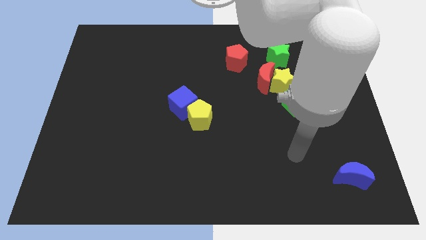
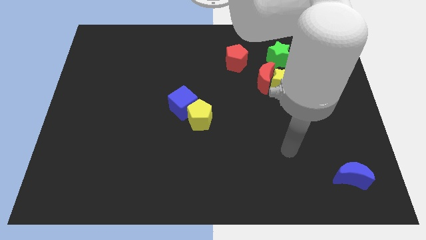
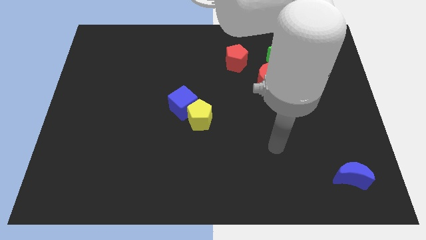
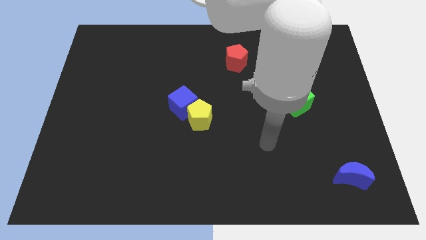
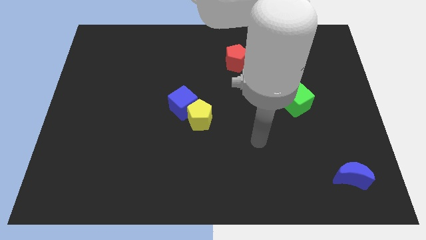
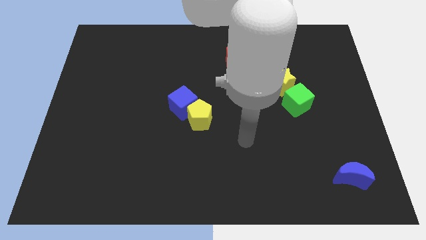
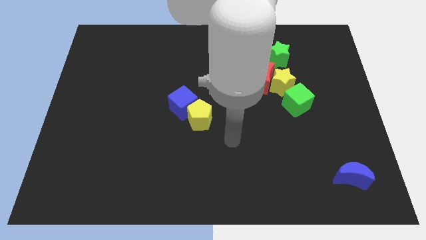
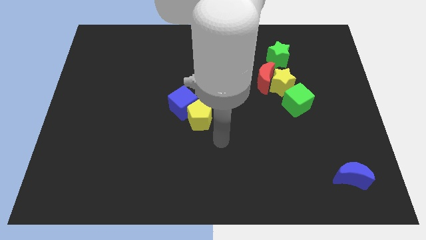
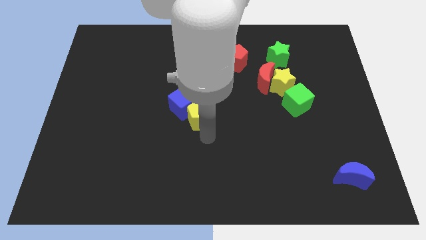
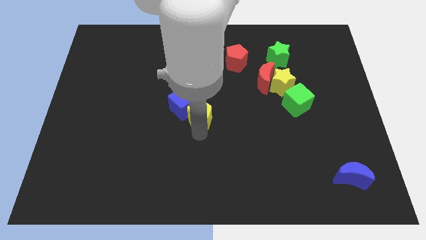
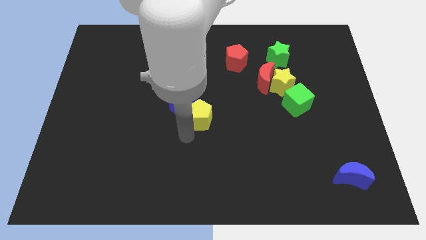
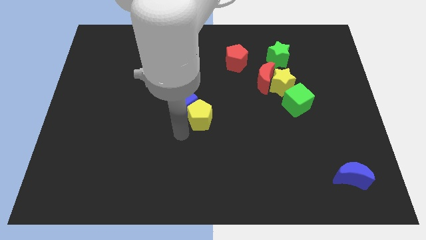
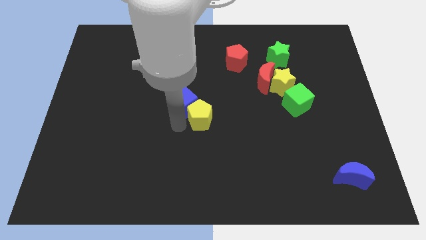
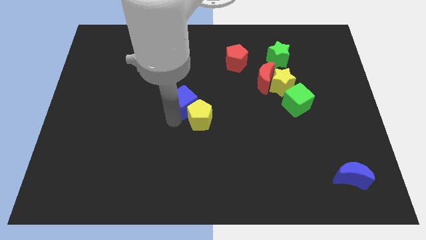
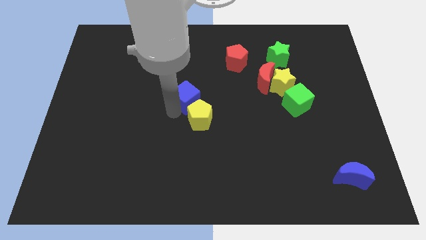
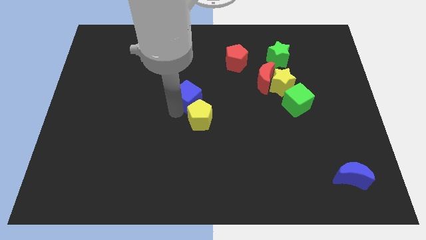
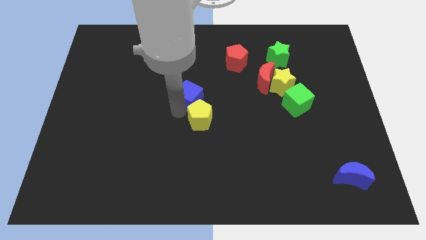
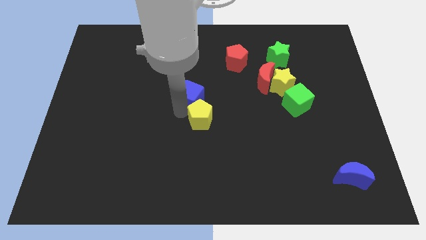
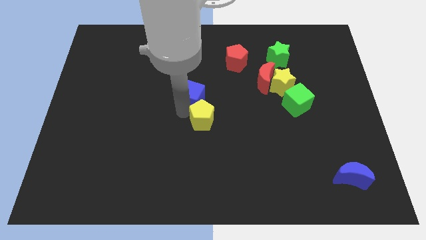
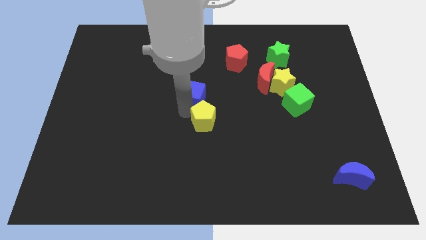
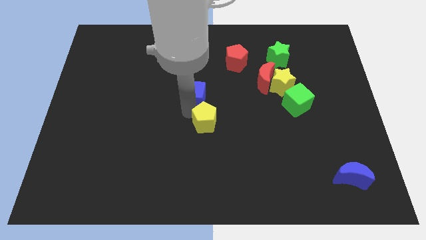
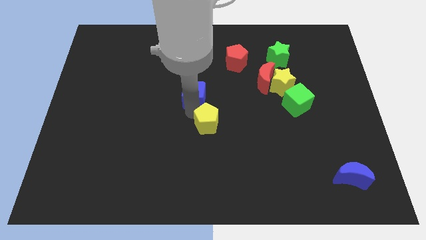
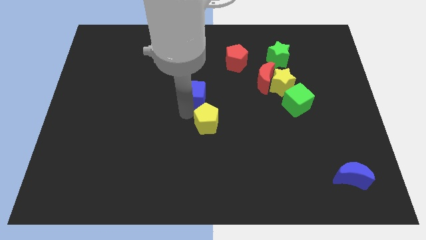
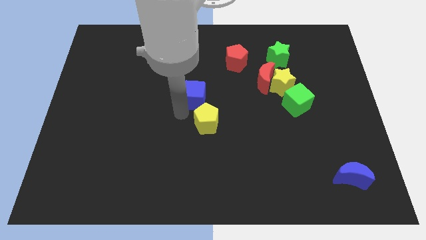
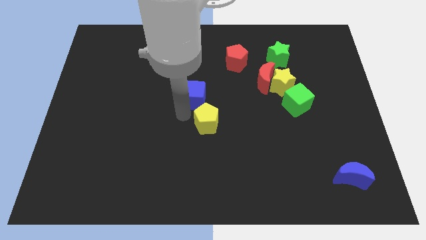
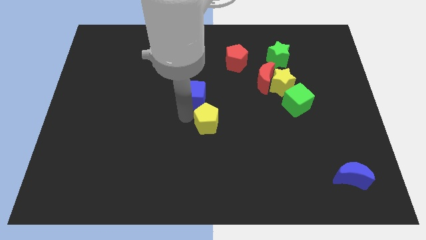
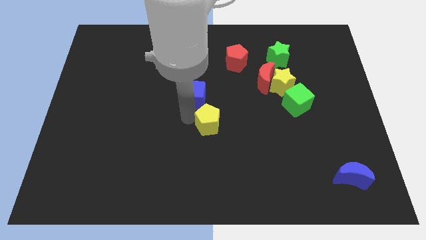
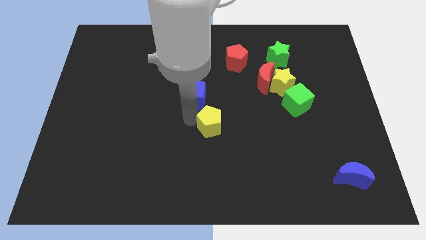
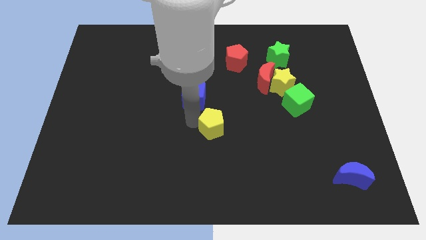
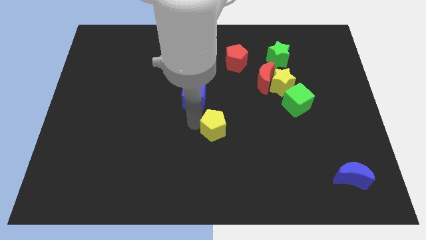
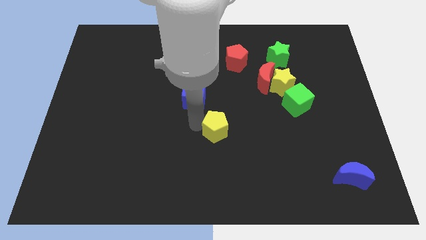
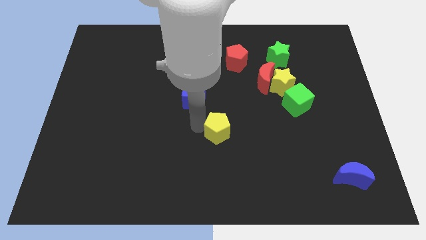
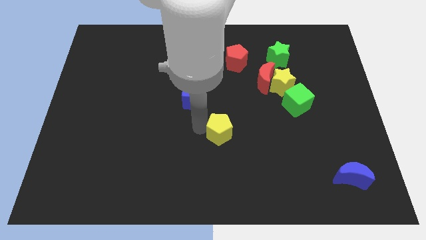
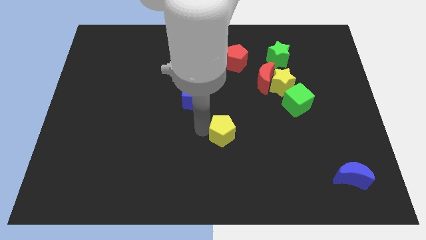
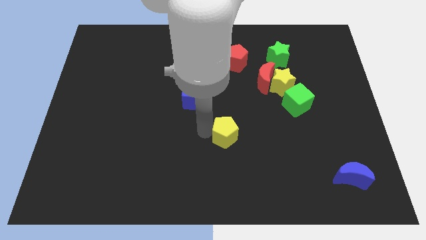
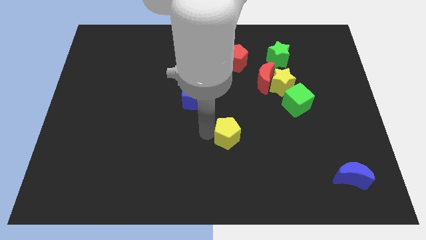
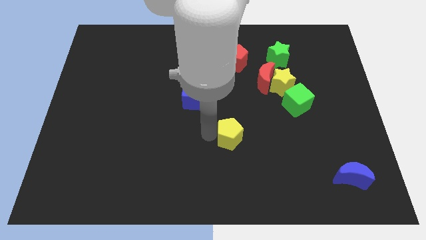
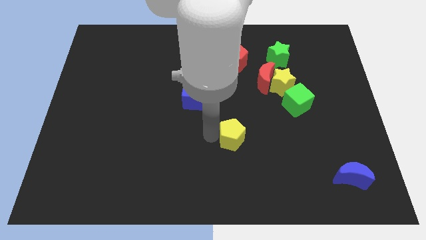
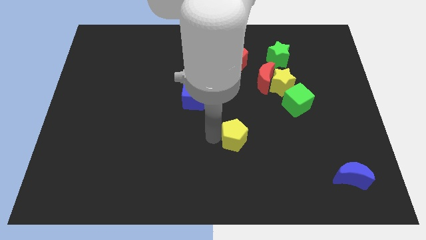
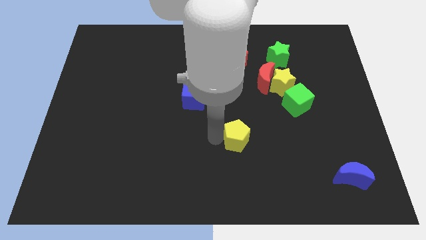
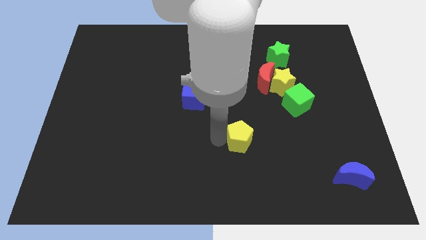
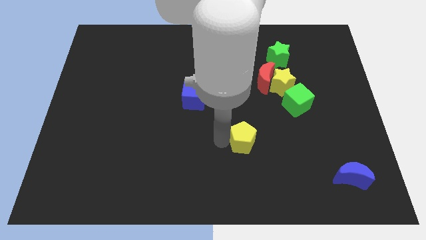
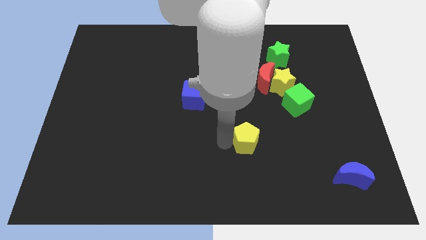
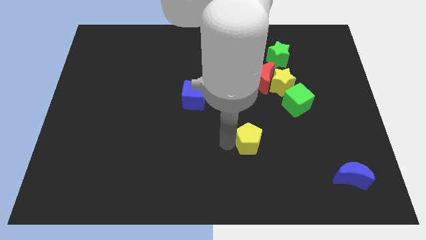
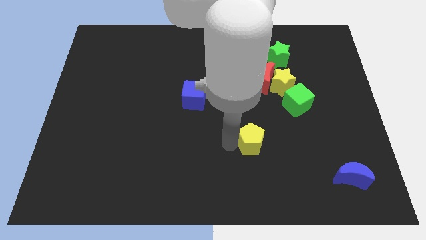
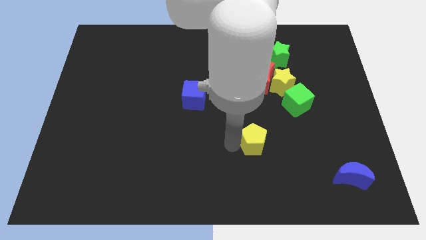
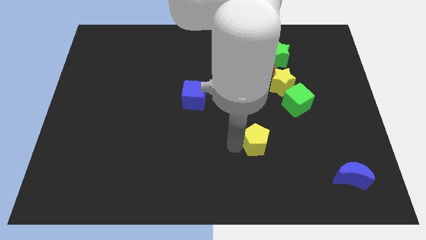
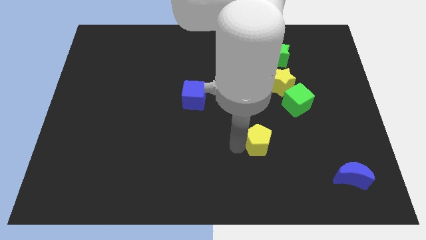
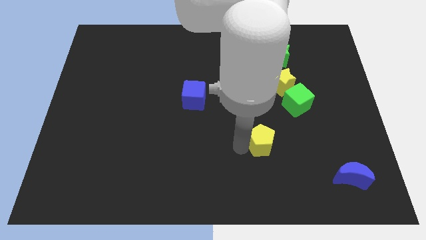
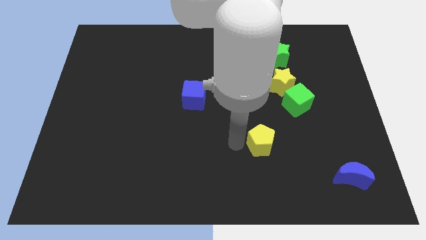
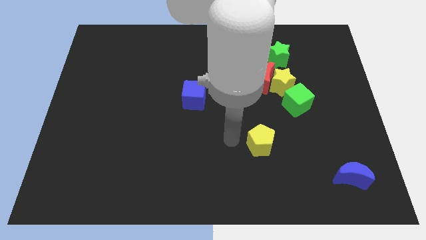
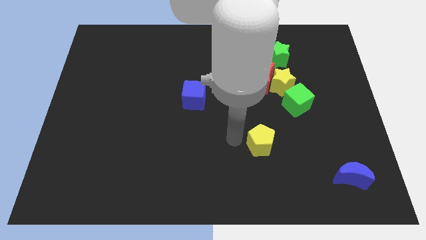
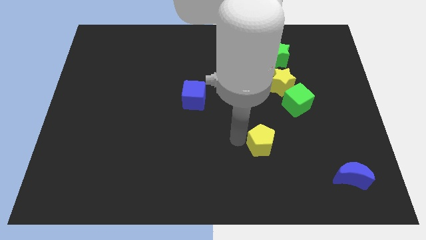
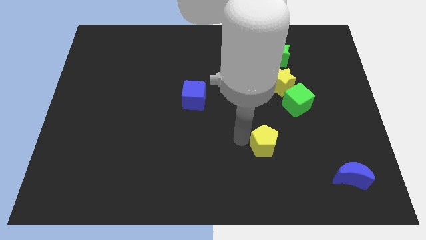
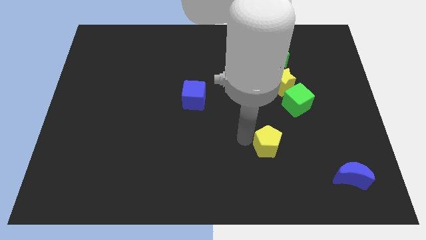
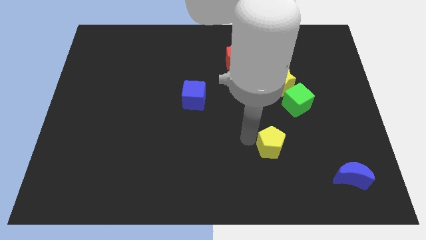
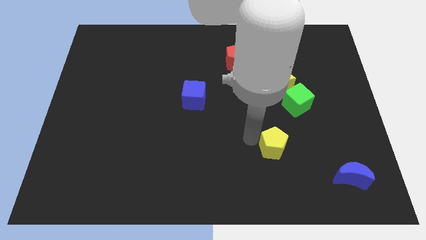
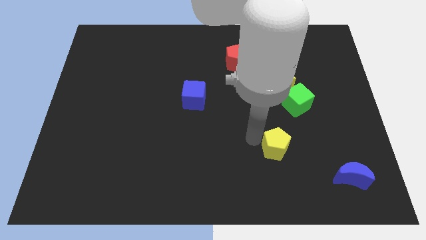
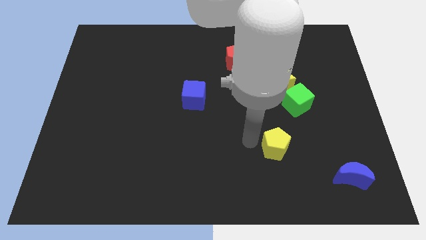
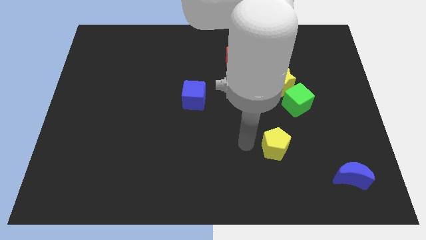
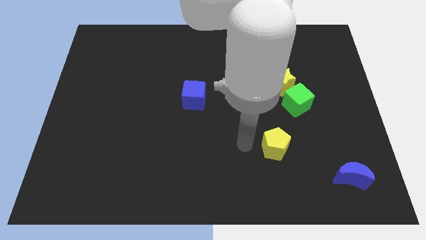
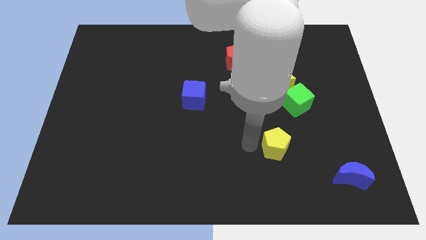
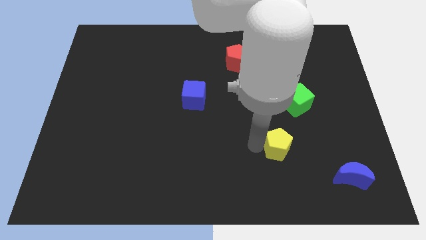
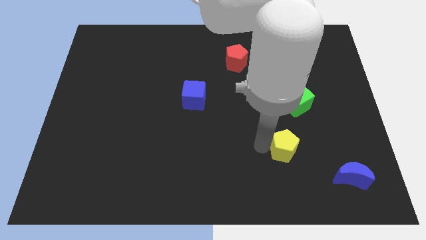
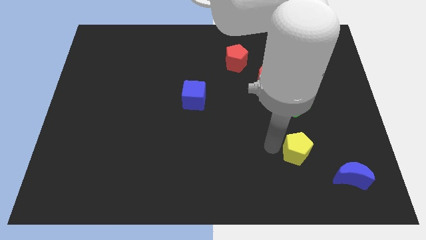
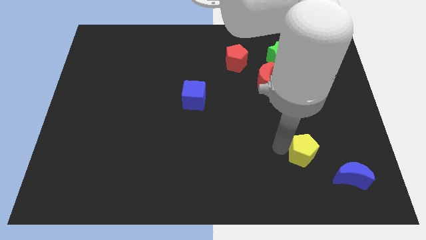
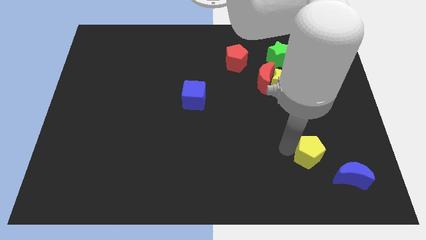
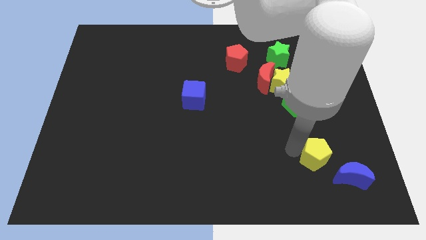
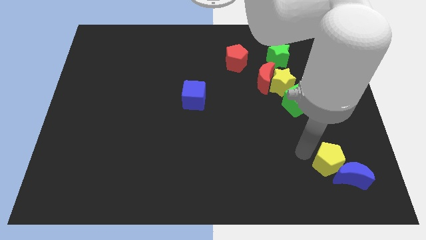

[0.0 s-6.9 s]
slide the yellow pentagon close to the blue moon

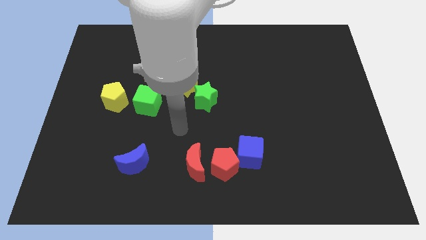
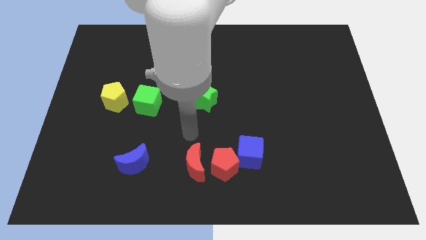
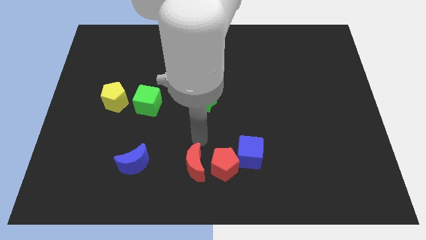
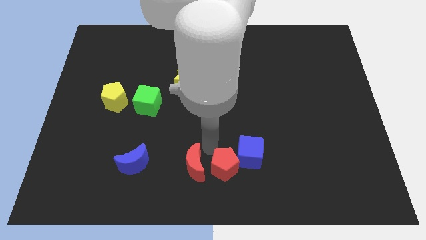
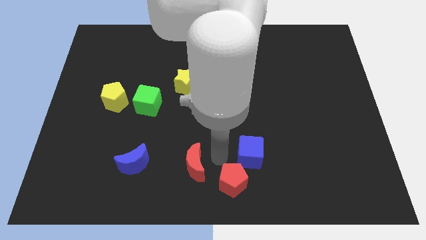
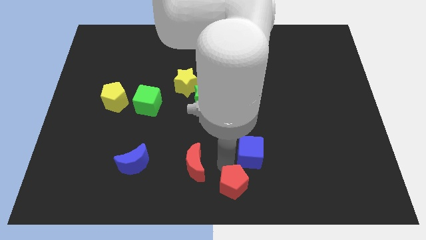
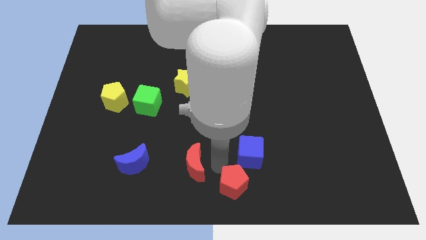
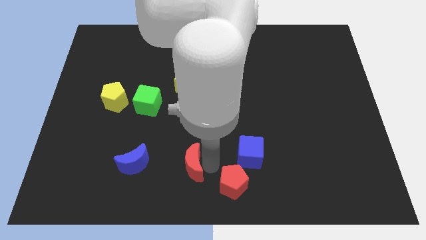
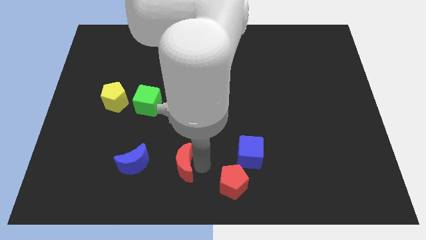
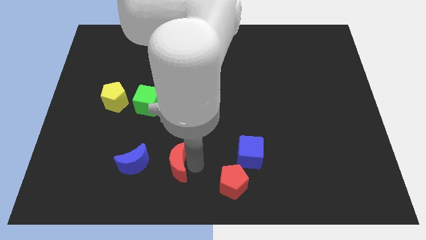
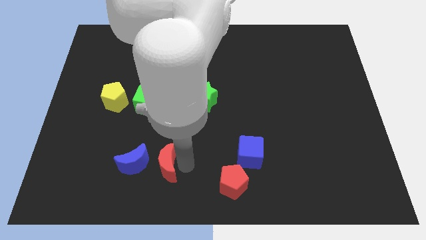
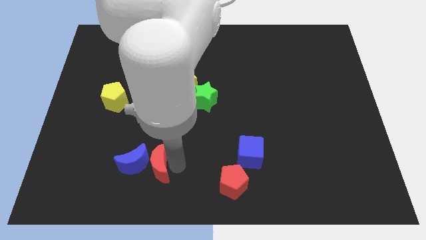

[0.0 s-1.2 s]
push the red moon towards the blue moon
